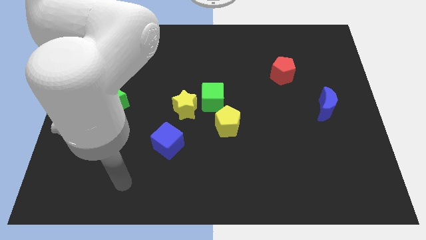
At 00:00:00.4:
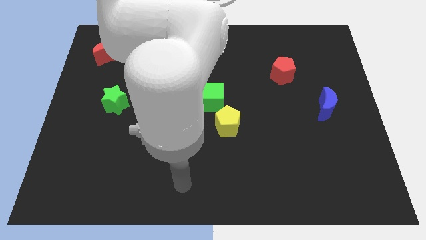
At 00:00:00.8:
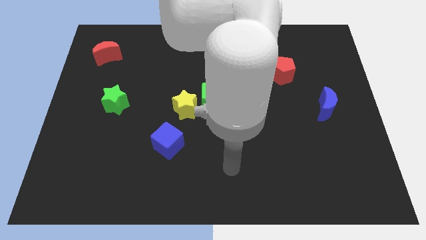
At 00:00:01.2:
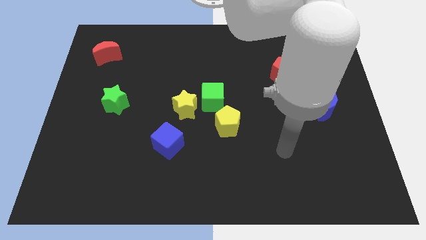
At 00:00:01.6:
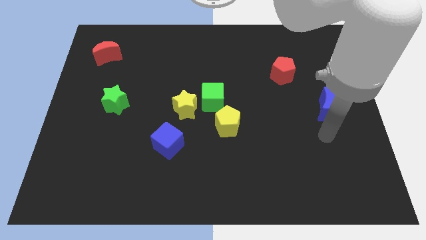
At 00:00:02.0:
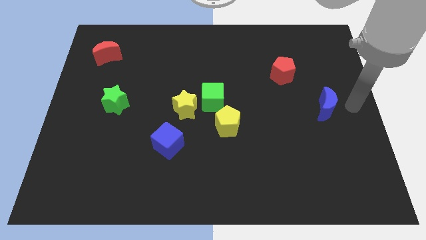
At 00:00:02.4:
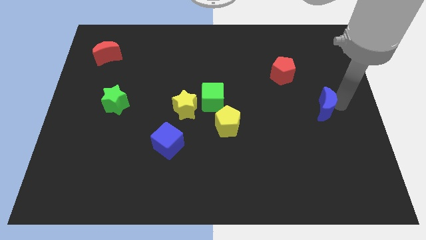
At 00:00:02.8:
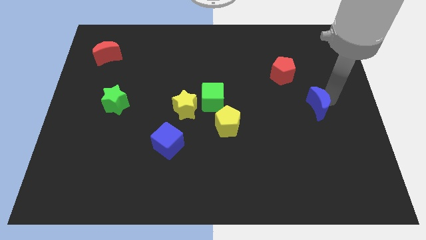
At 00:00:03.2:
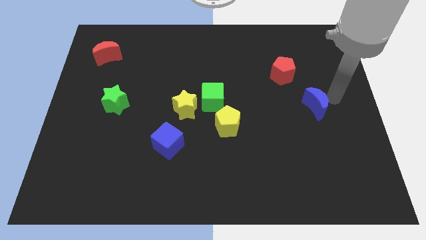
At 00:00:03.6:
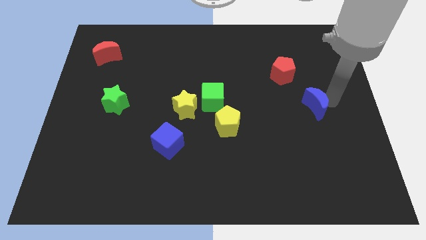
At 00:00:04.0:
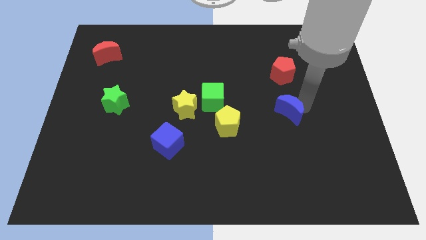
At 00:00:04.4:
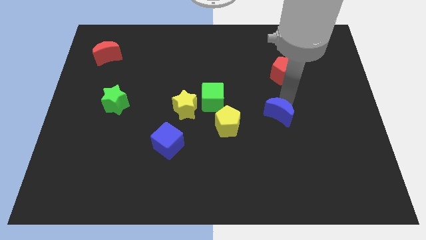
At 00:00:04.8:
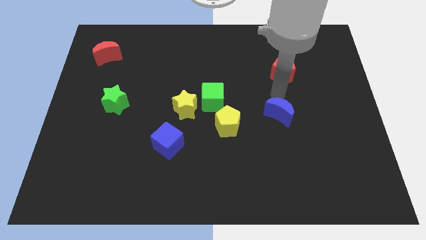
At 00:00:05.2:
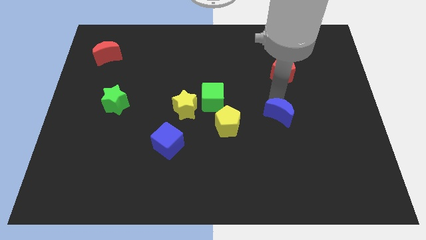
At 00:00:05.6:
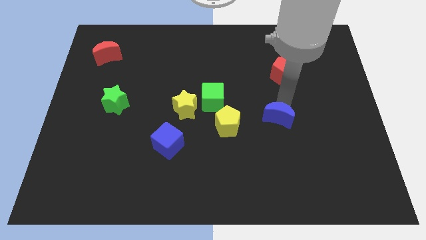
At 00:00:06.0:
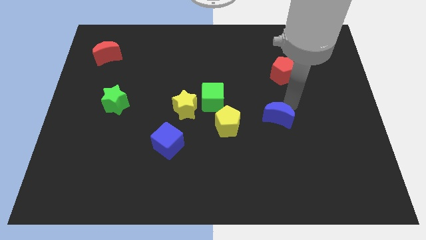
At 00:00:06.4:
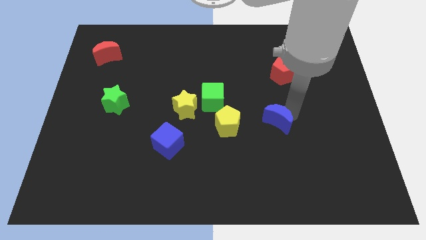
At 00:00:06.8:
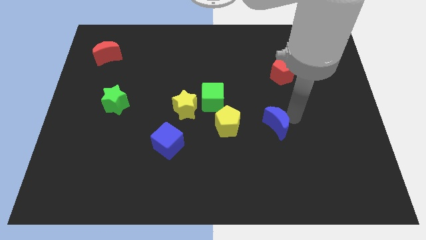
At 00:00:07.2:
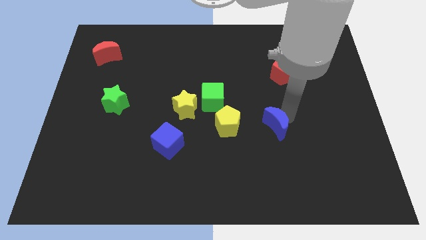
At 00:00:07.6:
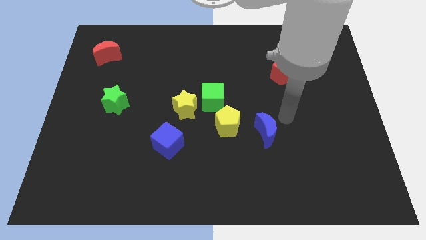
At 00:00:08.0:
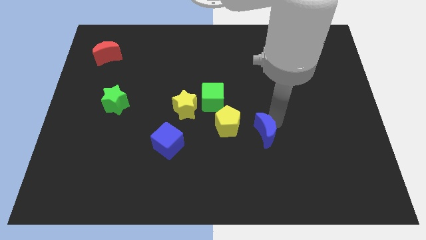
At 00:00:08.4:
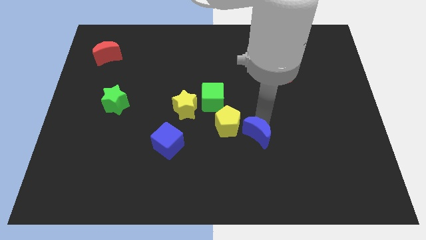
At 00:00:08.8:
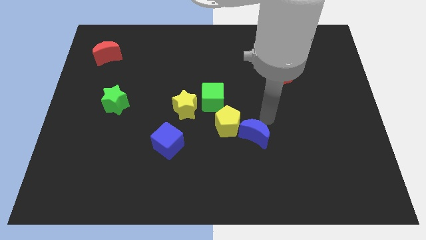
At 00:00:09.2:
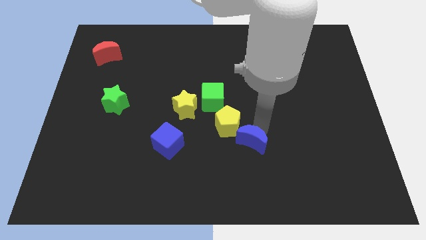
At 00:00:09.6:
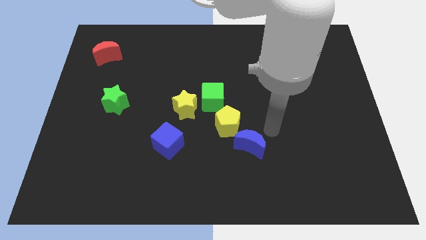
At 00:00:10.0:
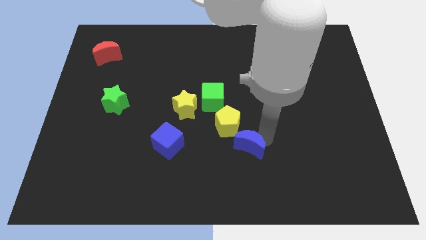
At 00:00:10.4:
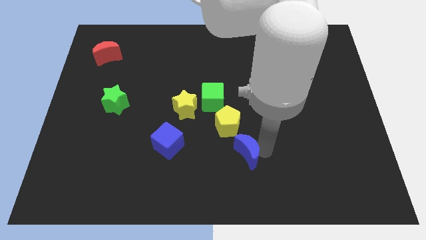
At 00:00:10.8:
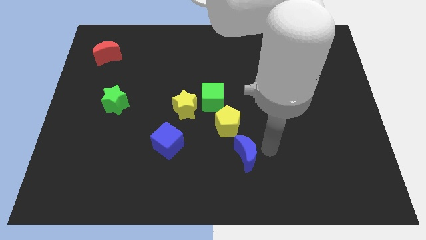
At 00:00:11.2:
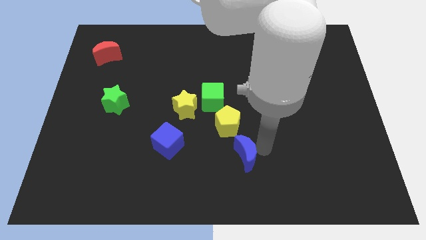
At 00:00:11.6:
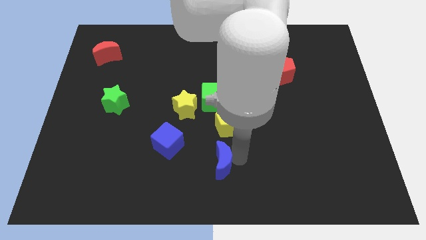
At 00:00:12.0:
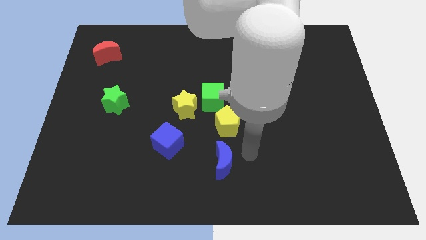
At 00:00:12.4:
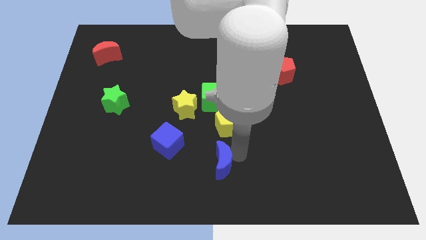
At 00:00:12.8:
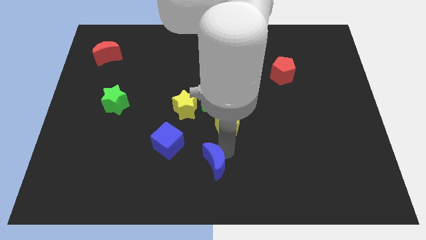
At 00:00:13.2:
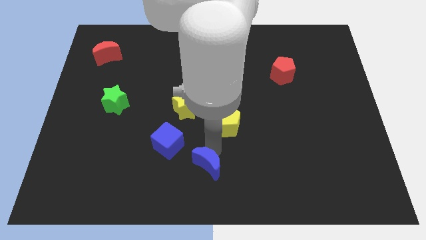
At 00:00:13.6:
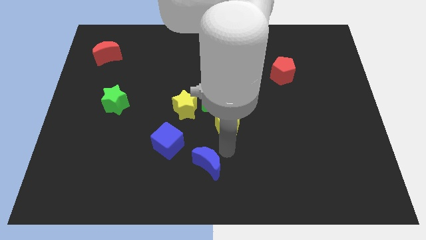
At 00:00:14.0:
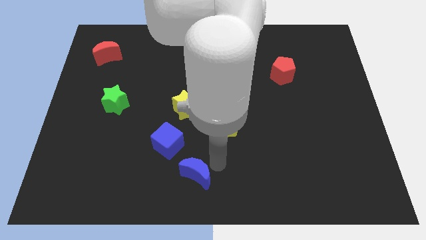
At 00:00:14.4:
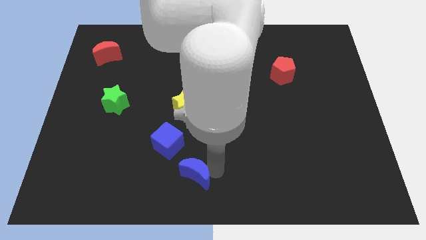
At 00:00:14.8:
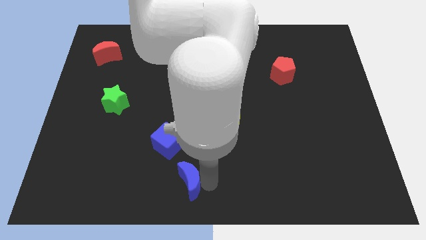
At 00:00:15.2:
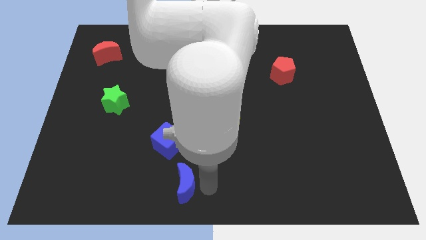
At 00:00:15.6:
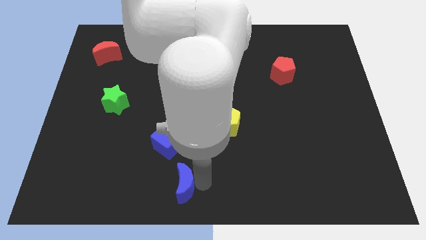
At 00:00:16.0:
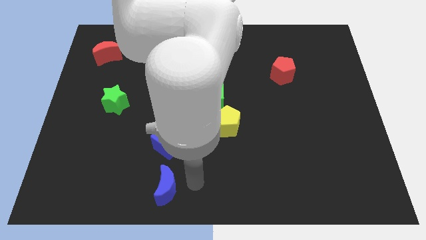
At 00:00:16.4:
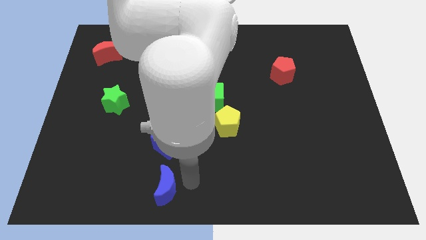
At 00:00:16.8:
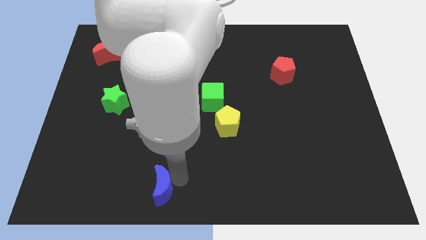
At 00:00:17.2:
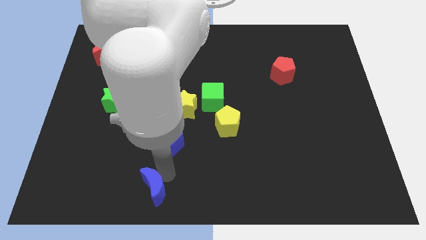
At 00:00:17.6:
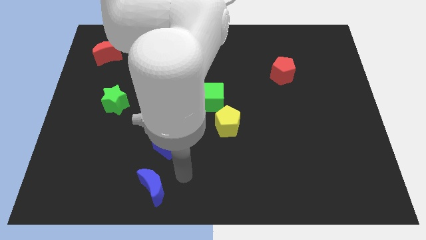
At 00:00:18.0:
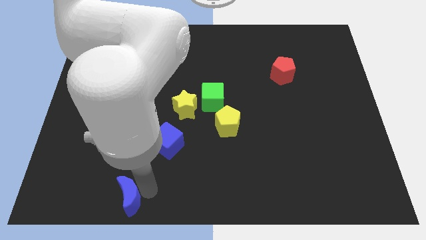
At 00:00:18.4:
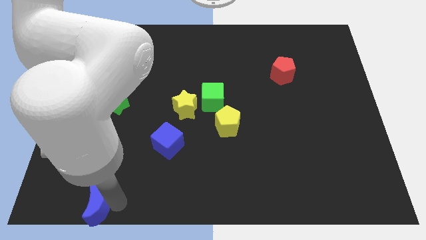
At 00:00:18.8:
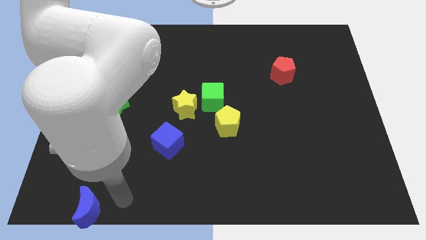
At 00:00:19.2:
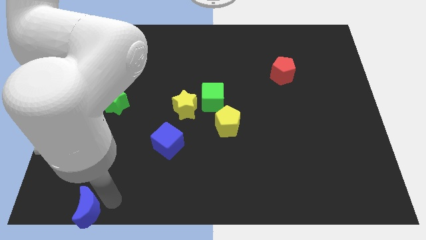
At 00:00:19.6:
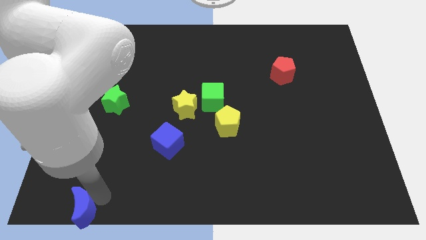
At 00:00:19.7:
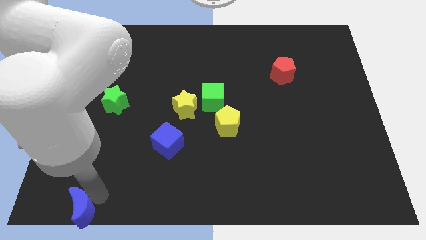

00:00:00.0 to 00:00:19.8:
slide the blue moon to the bottom left of the board
